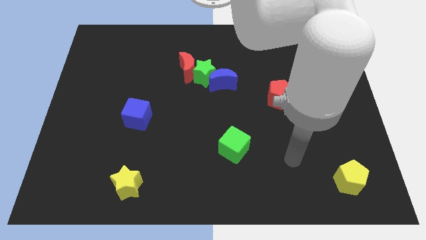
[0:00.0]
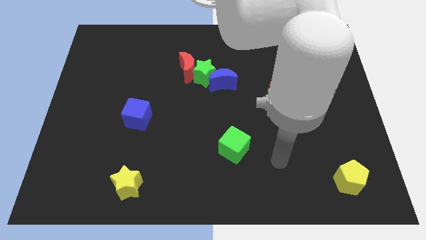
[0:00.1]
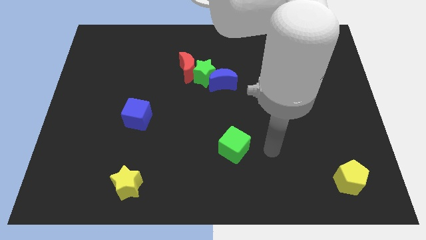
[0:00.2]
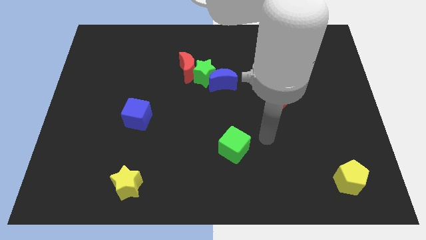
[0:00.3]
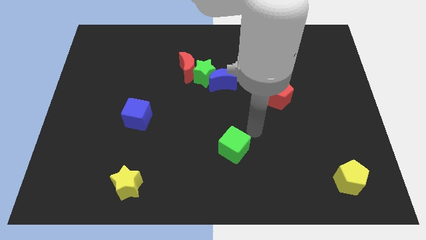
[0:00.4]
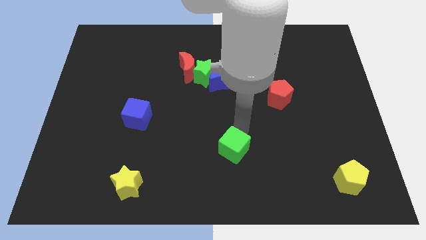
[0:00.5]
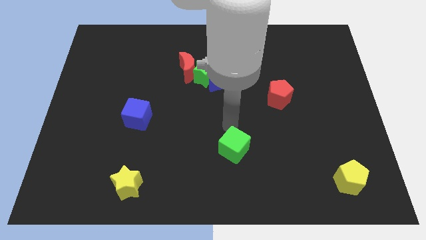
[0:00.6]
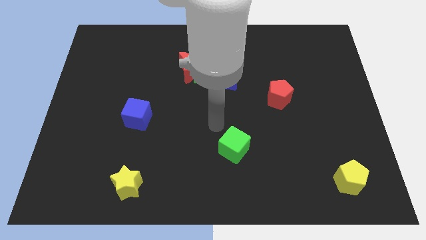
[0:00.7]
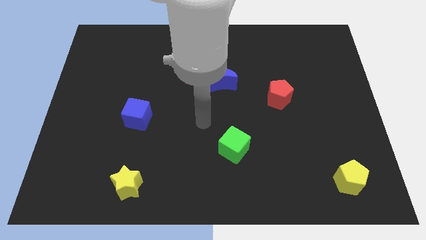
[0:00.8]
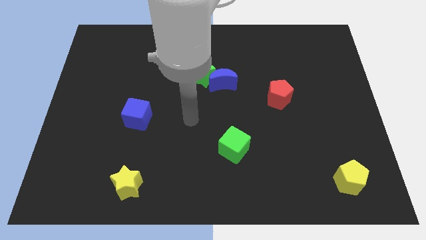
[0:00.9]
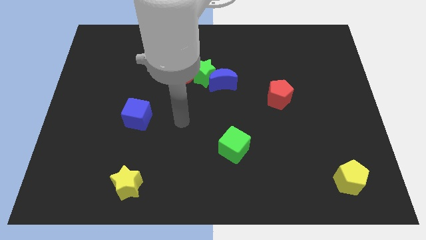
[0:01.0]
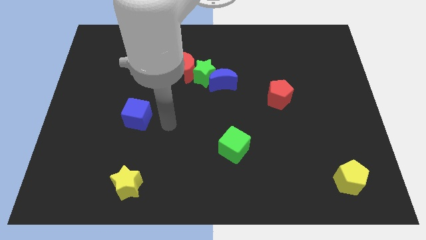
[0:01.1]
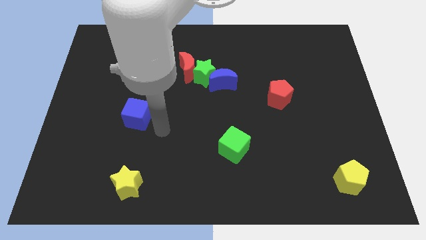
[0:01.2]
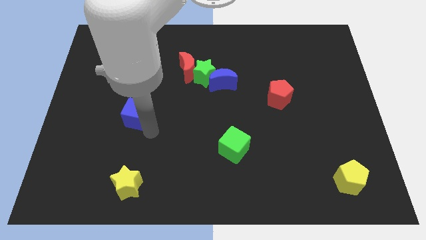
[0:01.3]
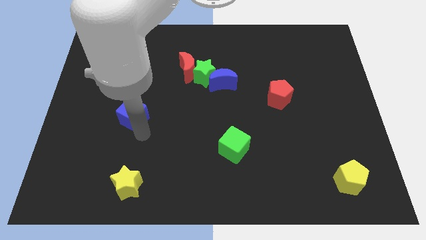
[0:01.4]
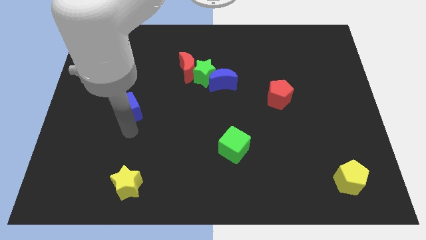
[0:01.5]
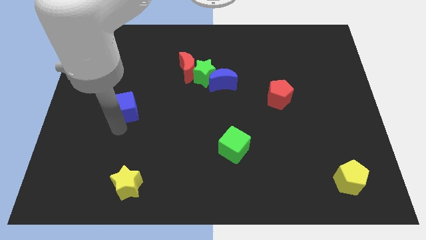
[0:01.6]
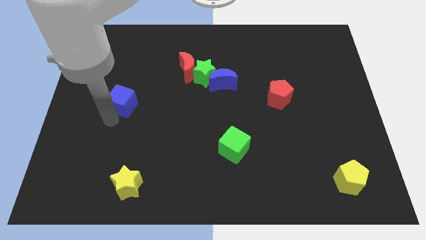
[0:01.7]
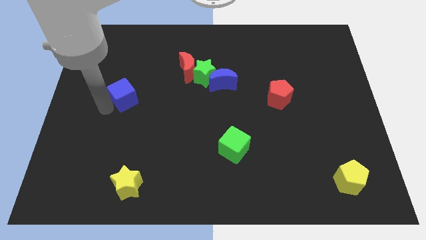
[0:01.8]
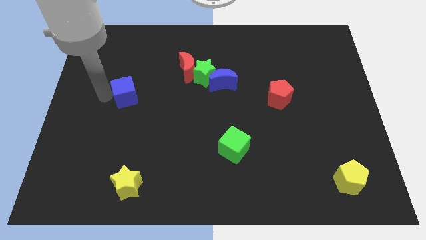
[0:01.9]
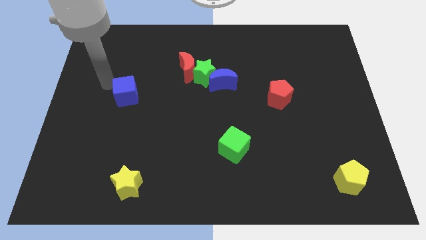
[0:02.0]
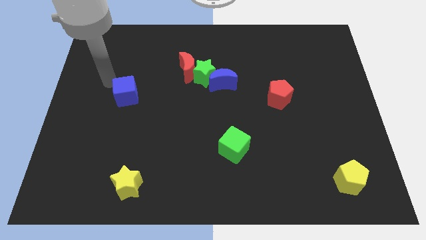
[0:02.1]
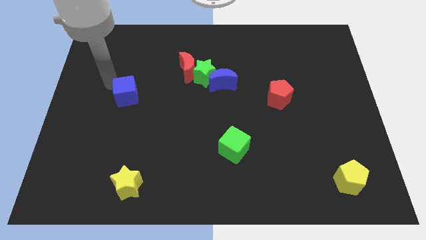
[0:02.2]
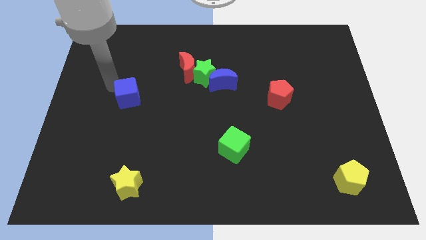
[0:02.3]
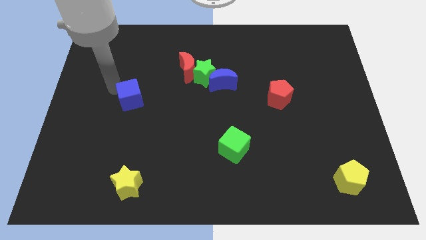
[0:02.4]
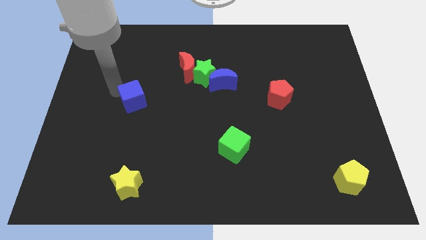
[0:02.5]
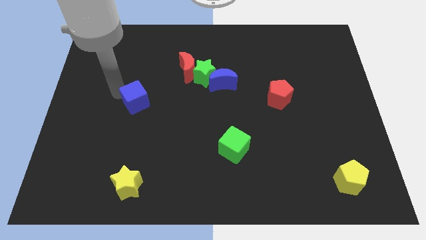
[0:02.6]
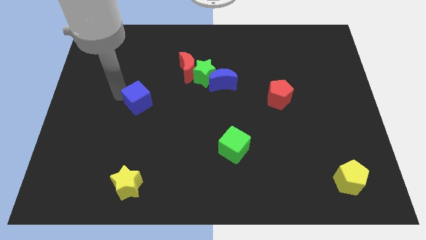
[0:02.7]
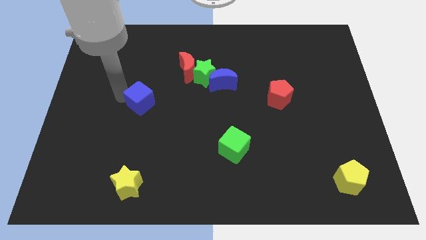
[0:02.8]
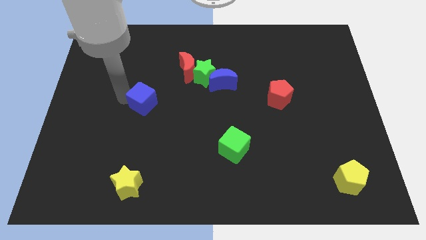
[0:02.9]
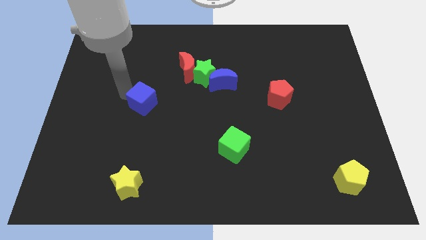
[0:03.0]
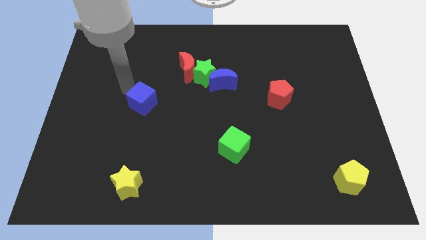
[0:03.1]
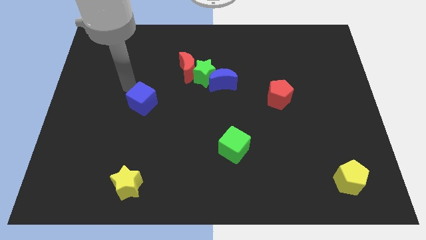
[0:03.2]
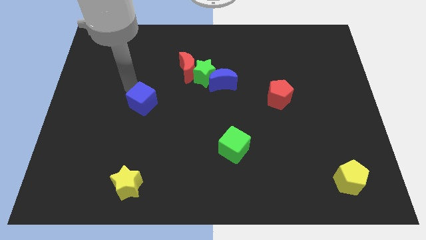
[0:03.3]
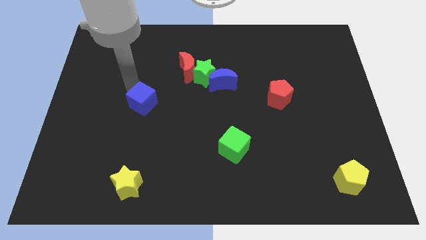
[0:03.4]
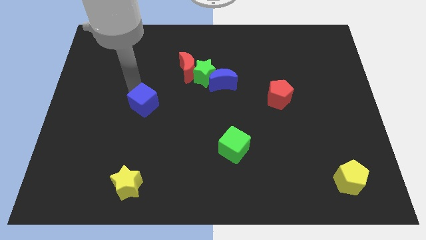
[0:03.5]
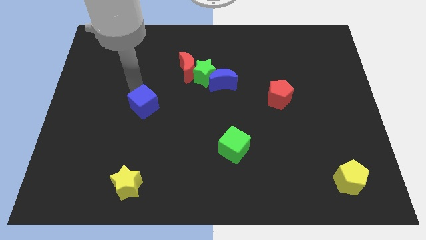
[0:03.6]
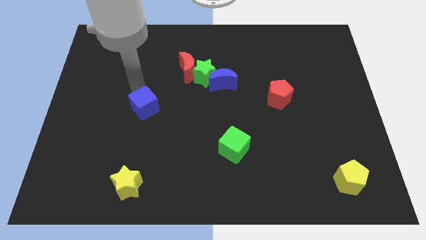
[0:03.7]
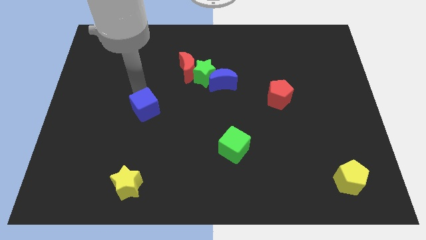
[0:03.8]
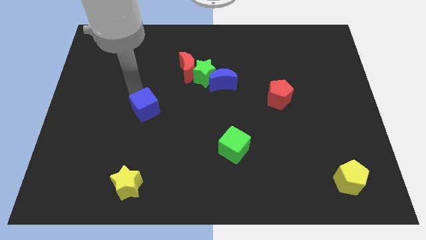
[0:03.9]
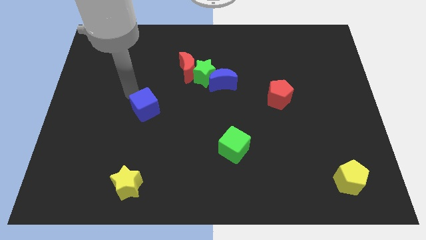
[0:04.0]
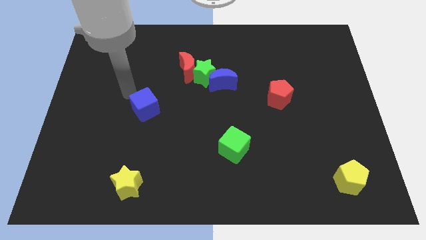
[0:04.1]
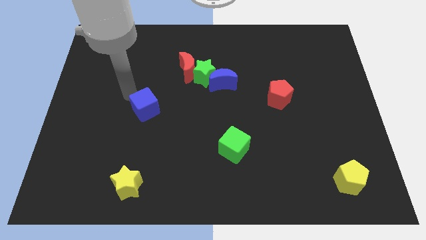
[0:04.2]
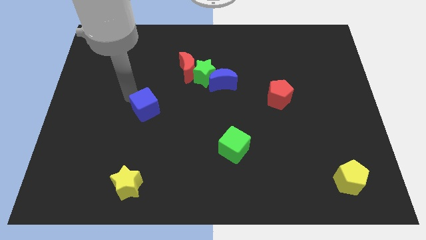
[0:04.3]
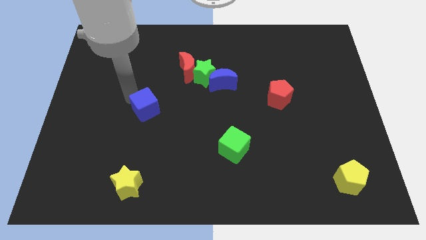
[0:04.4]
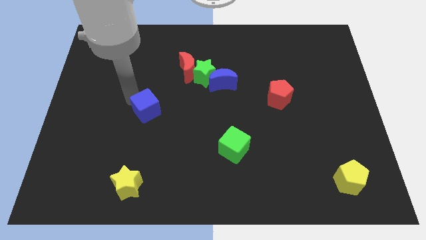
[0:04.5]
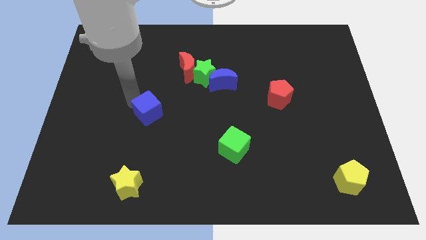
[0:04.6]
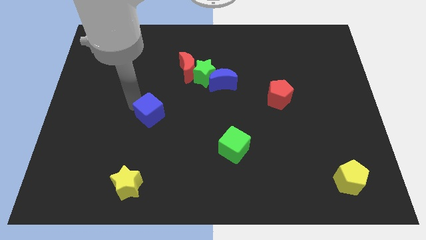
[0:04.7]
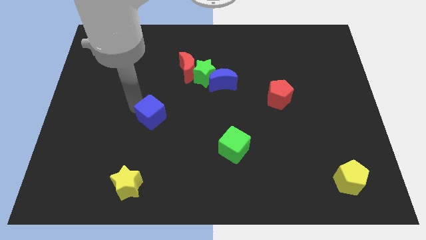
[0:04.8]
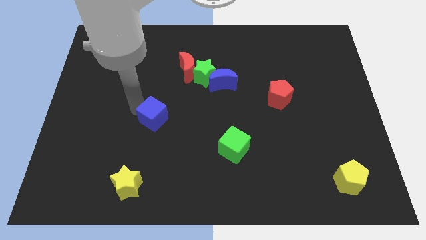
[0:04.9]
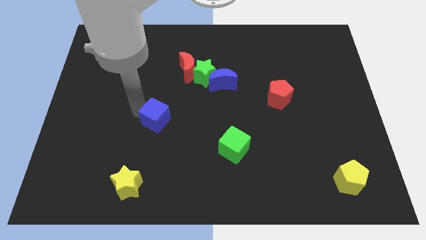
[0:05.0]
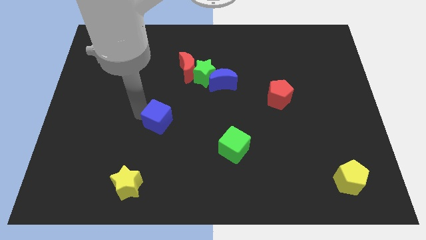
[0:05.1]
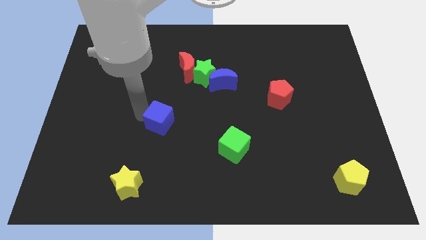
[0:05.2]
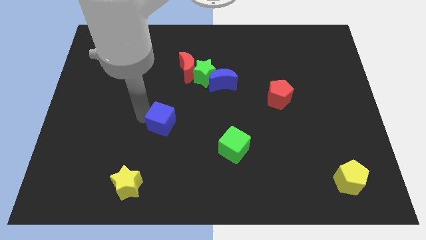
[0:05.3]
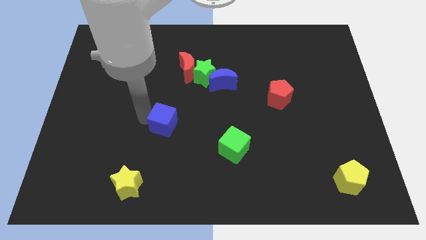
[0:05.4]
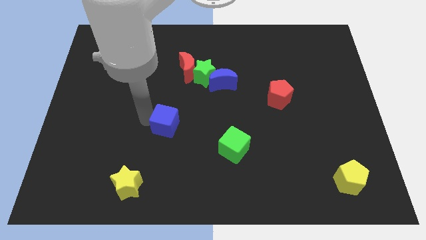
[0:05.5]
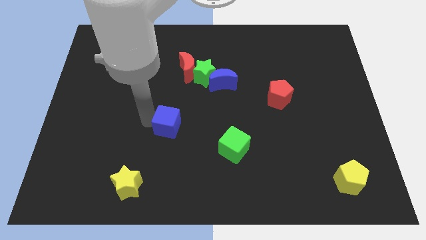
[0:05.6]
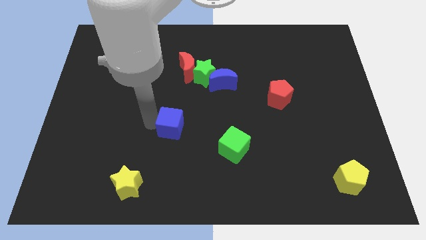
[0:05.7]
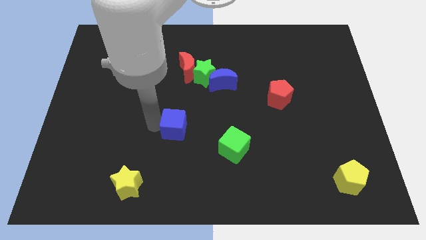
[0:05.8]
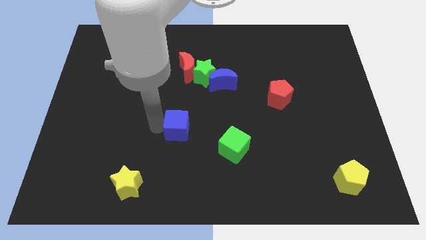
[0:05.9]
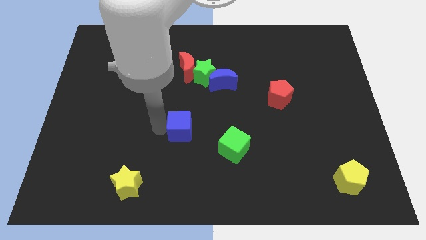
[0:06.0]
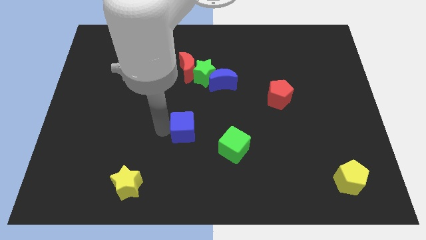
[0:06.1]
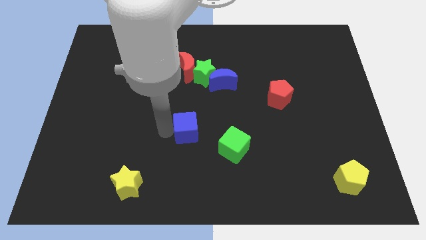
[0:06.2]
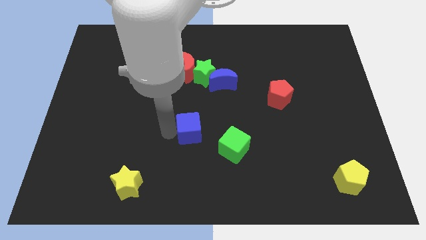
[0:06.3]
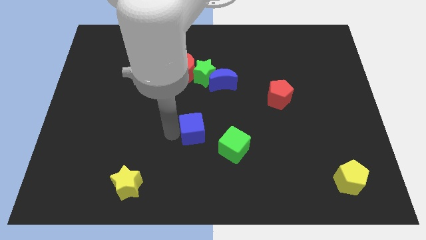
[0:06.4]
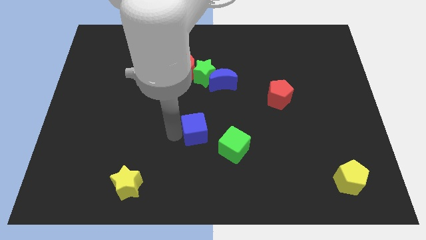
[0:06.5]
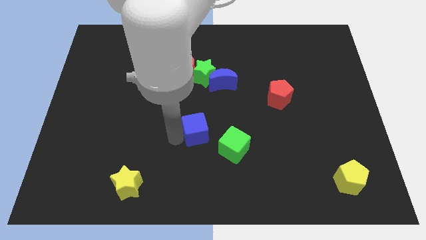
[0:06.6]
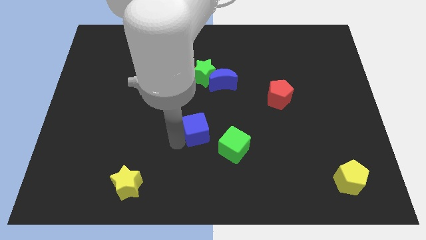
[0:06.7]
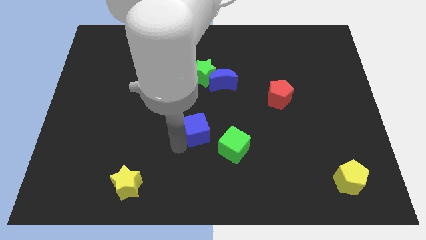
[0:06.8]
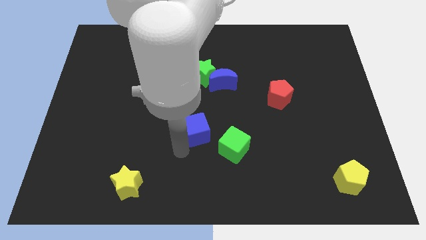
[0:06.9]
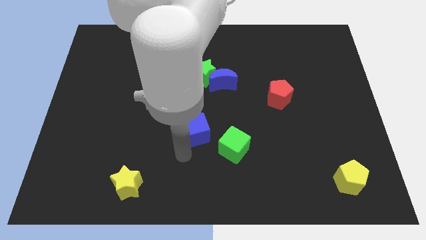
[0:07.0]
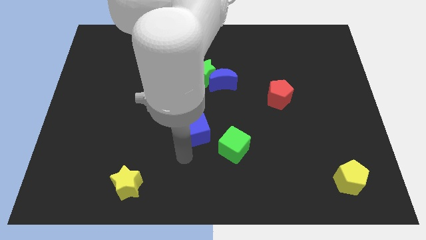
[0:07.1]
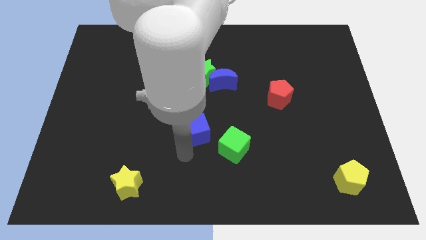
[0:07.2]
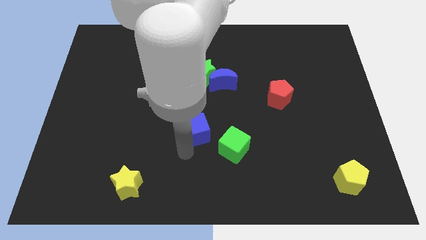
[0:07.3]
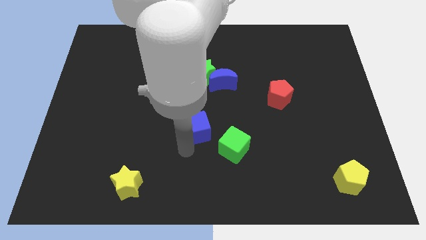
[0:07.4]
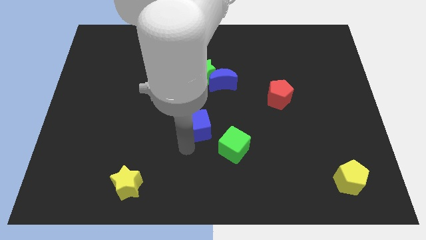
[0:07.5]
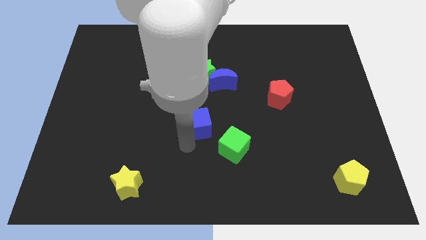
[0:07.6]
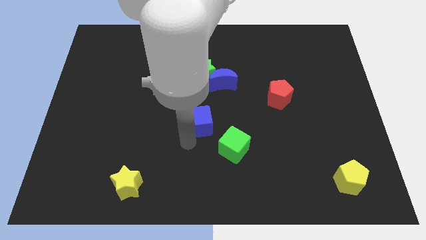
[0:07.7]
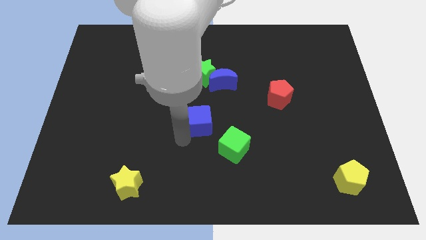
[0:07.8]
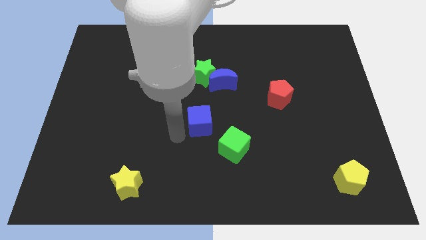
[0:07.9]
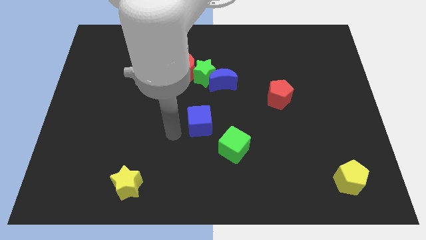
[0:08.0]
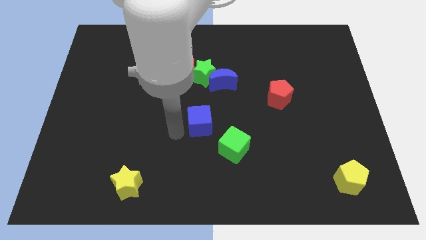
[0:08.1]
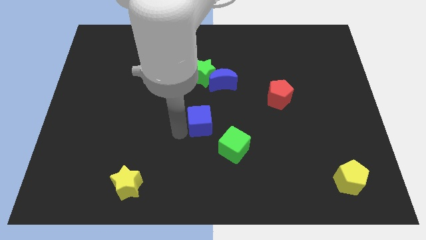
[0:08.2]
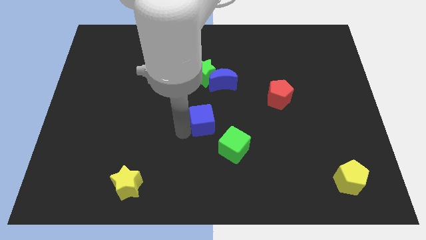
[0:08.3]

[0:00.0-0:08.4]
put the blue cube to the bottom side of the blue moon
